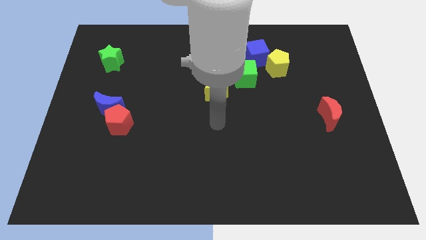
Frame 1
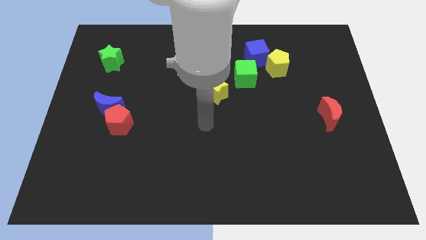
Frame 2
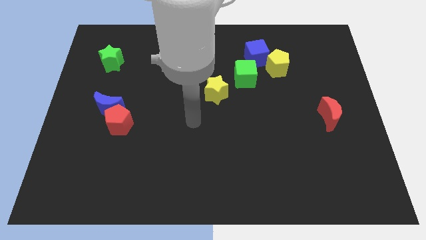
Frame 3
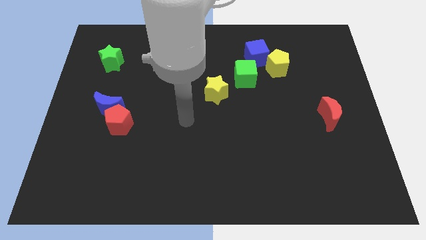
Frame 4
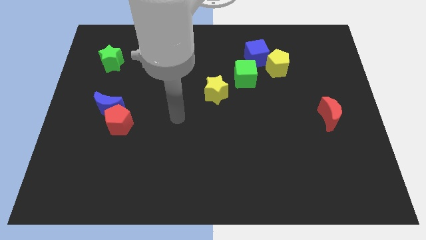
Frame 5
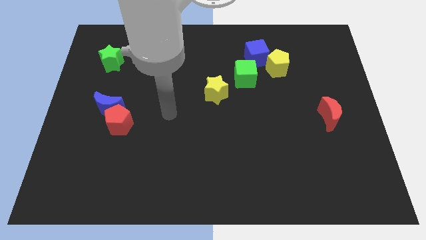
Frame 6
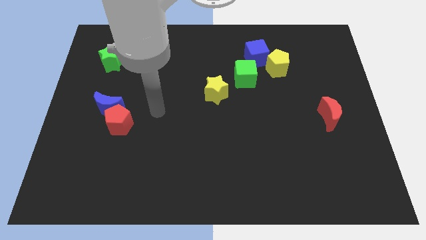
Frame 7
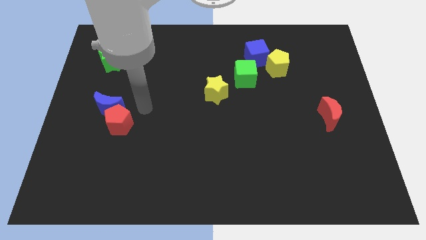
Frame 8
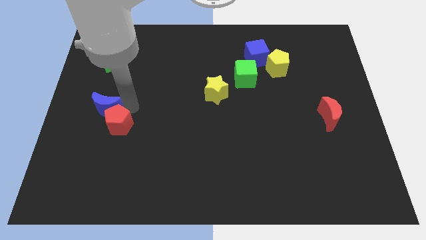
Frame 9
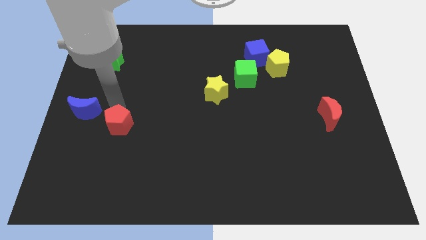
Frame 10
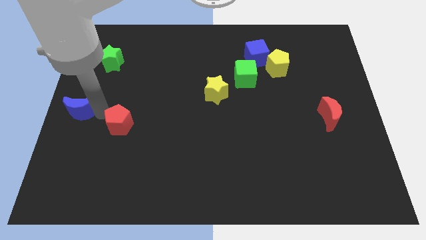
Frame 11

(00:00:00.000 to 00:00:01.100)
separate the red pentagon from the blue moon

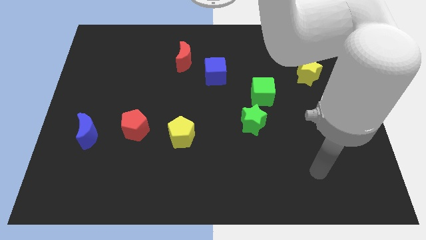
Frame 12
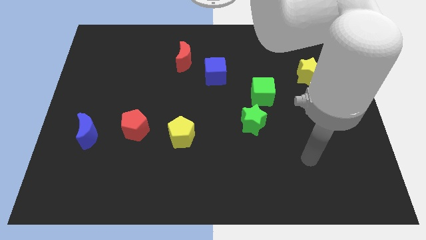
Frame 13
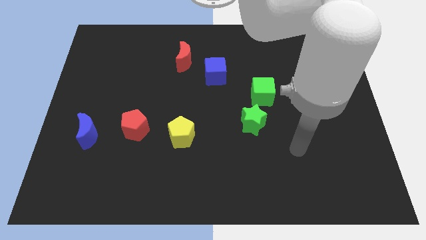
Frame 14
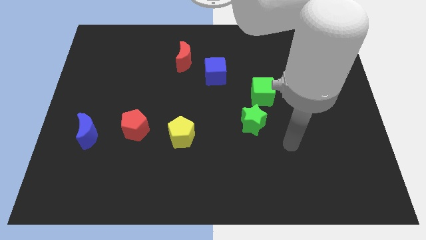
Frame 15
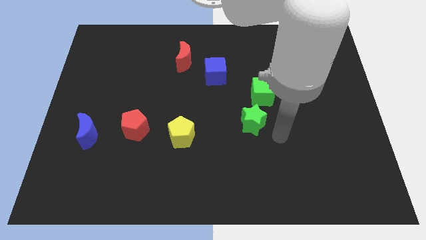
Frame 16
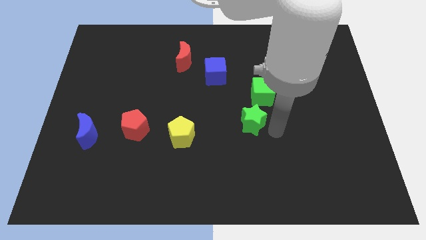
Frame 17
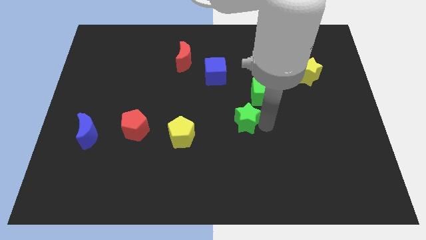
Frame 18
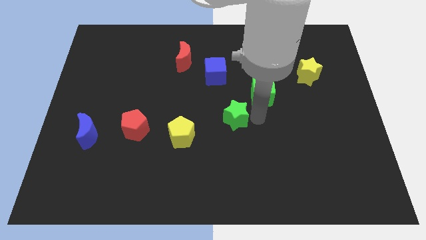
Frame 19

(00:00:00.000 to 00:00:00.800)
move the green cube away from the green star

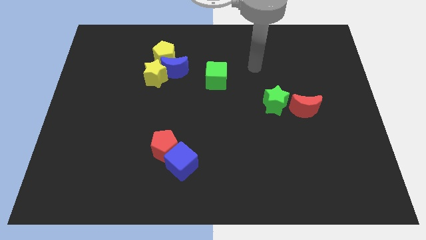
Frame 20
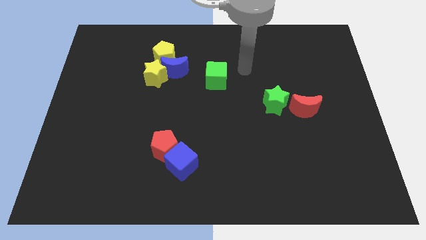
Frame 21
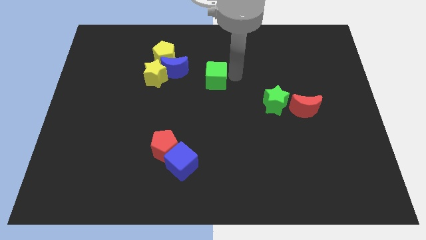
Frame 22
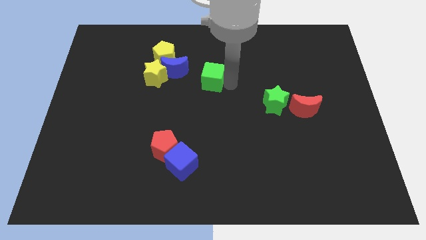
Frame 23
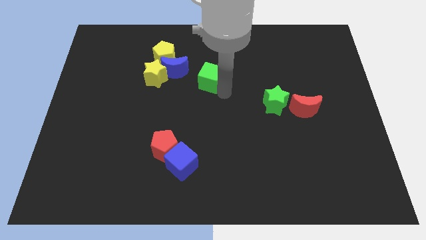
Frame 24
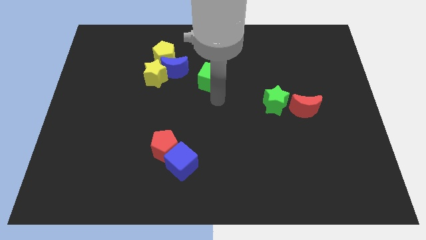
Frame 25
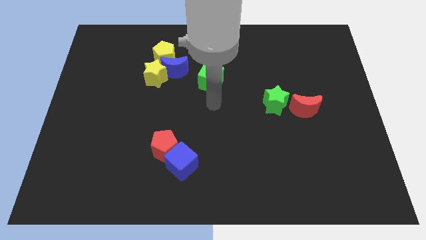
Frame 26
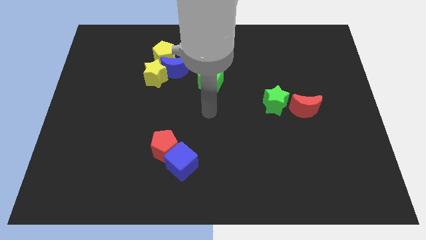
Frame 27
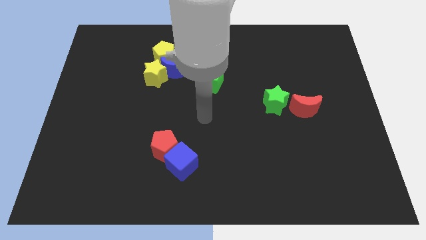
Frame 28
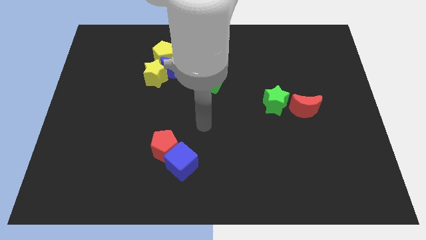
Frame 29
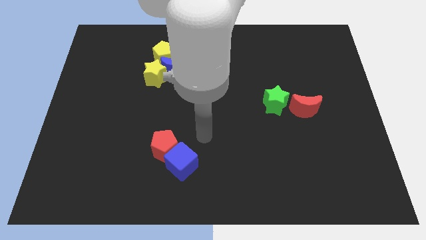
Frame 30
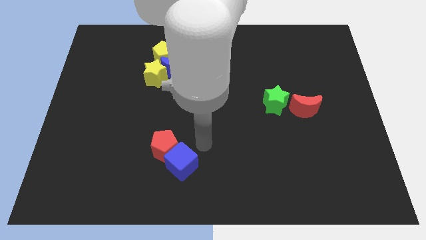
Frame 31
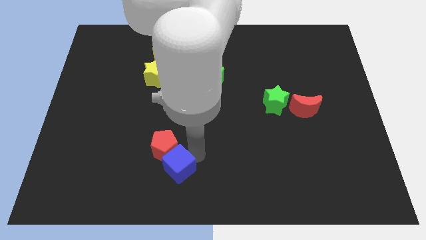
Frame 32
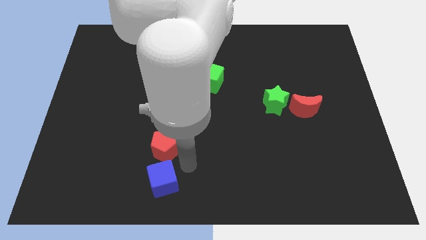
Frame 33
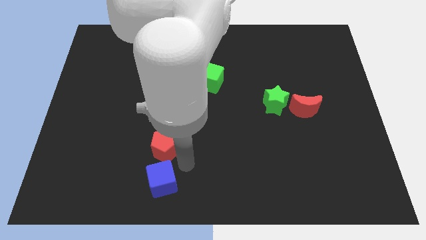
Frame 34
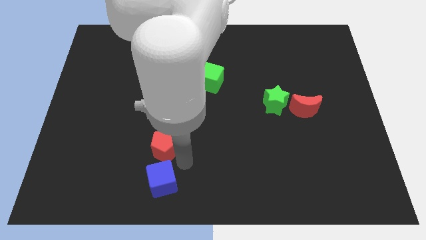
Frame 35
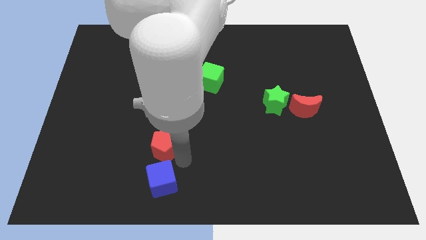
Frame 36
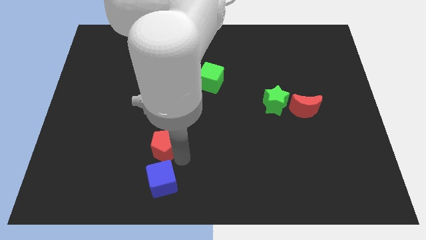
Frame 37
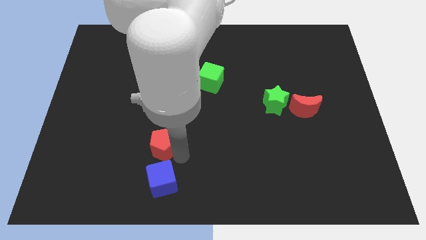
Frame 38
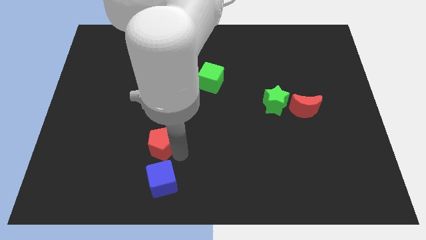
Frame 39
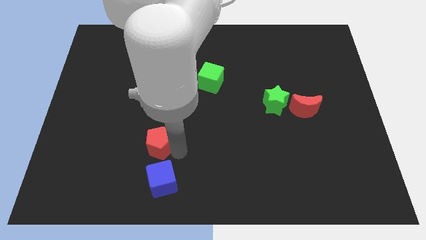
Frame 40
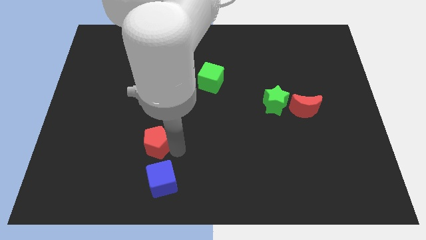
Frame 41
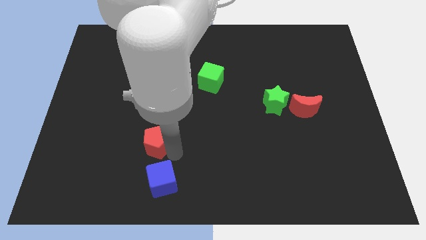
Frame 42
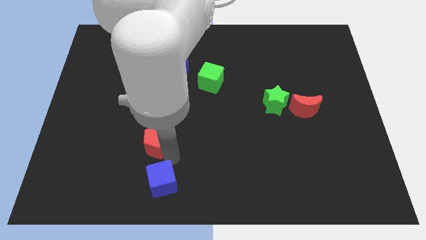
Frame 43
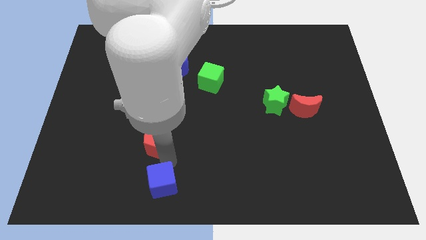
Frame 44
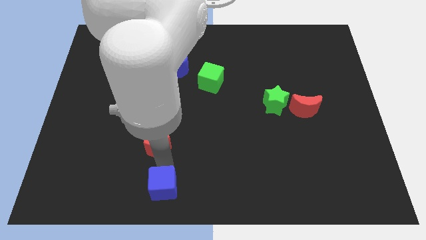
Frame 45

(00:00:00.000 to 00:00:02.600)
separate the red pentagon from the blue cube

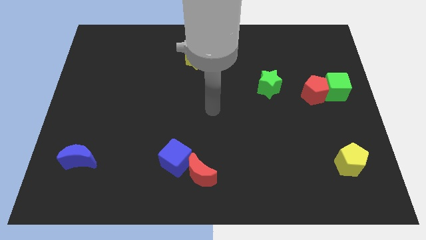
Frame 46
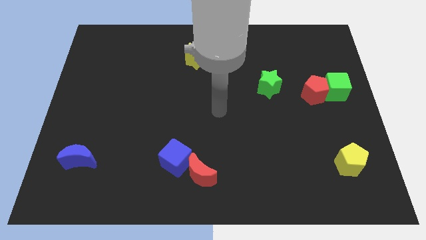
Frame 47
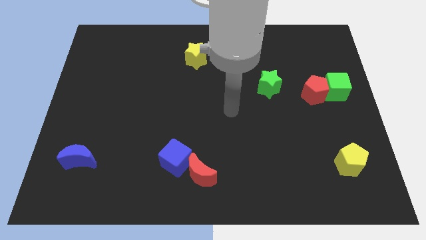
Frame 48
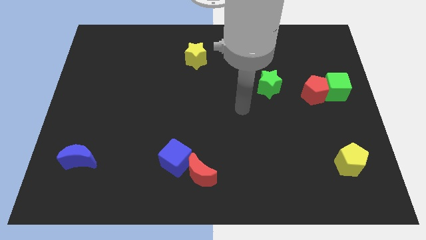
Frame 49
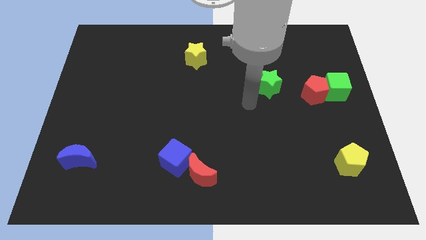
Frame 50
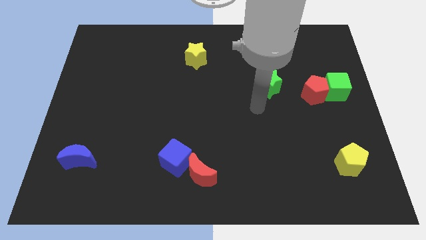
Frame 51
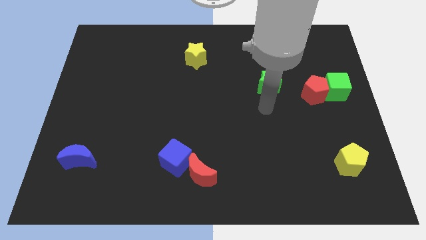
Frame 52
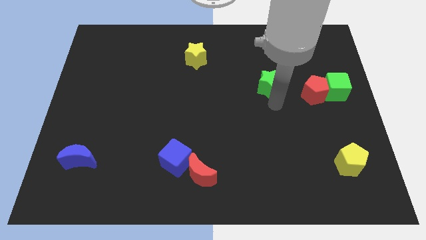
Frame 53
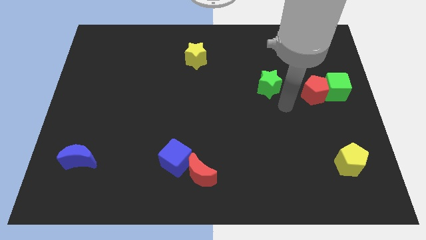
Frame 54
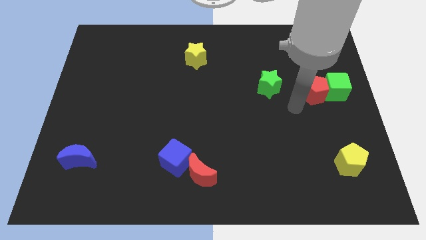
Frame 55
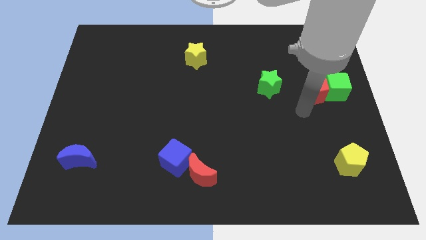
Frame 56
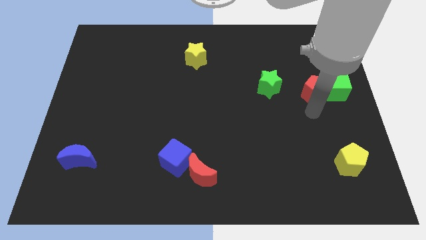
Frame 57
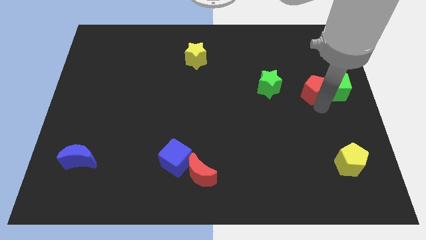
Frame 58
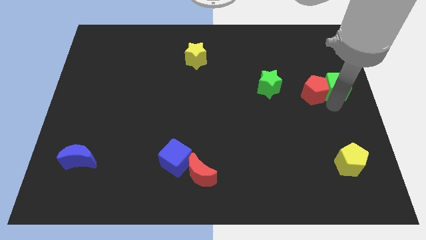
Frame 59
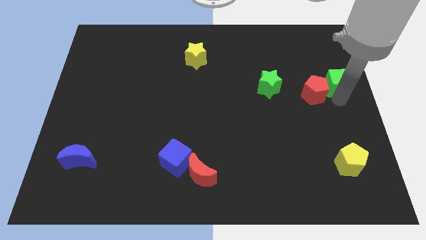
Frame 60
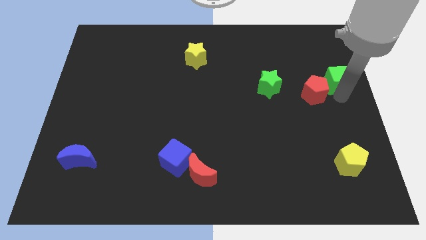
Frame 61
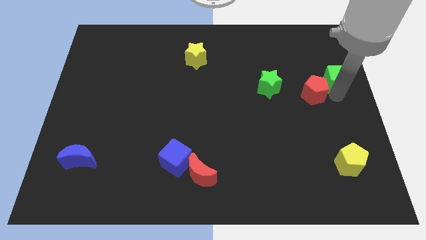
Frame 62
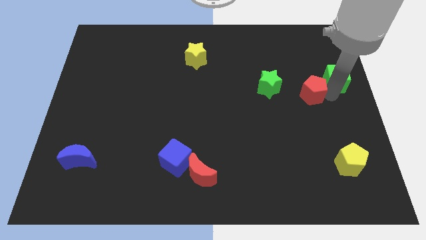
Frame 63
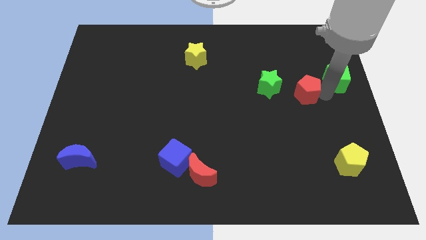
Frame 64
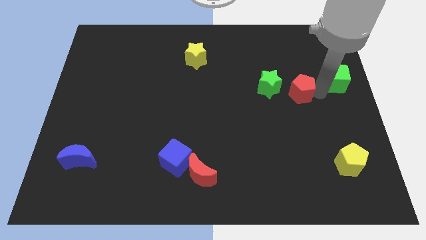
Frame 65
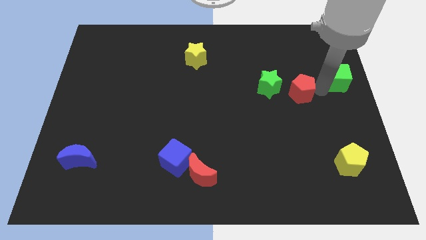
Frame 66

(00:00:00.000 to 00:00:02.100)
move the red pentagon away from the green cube

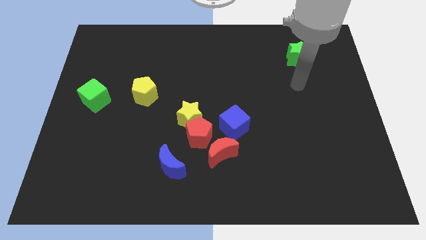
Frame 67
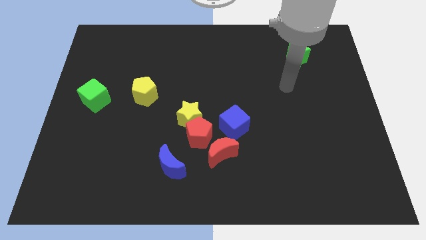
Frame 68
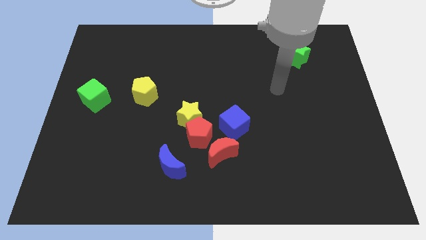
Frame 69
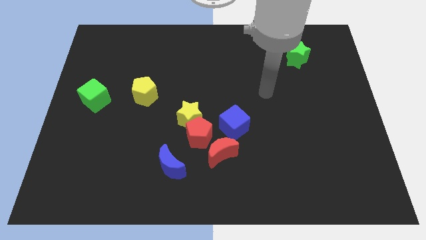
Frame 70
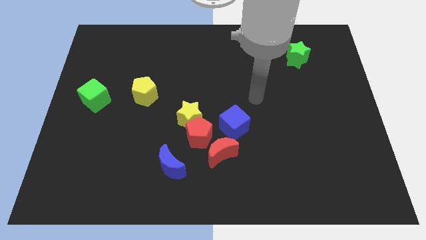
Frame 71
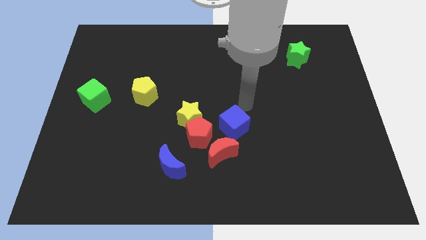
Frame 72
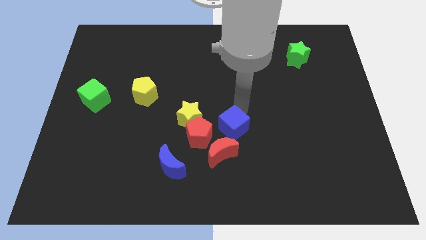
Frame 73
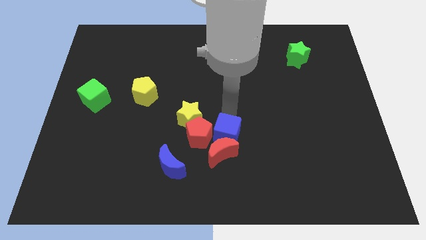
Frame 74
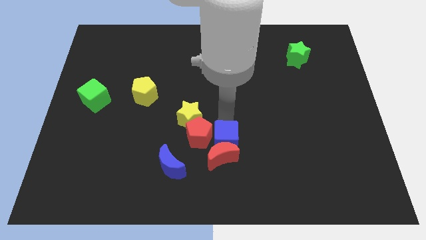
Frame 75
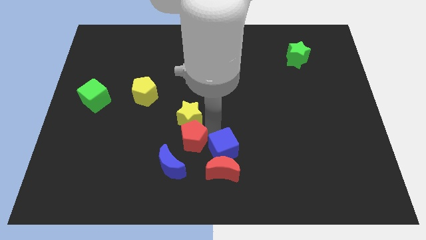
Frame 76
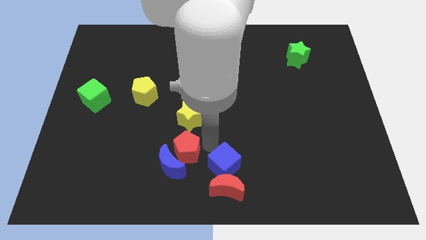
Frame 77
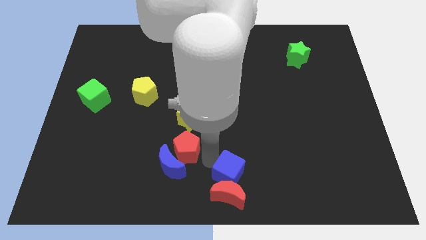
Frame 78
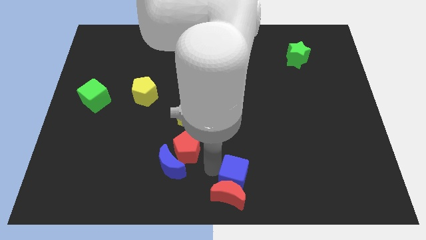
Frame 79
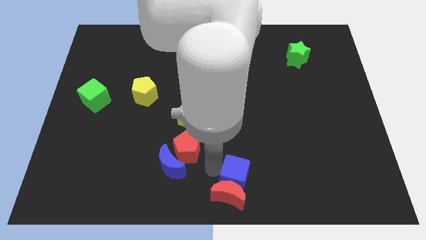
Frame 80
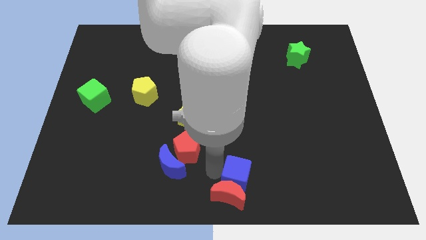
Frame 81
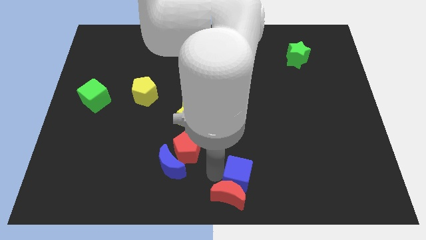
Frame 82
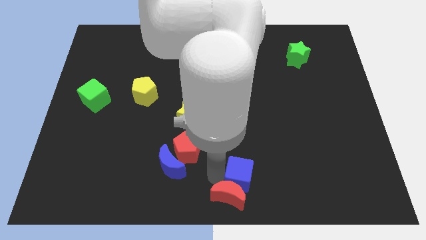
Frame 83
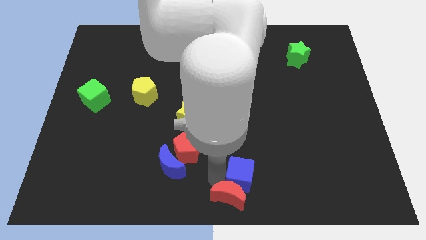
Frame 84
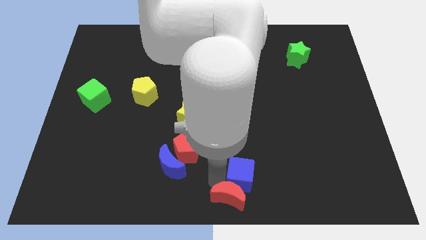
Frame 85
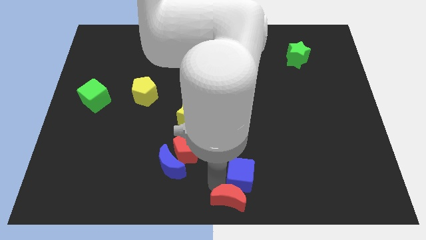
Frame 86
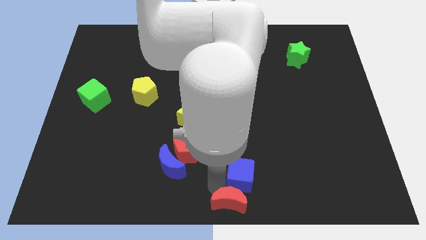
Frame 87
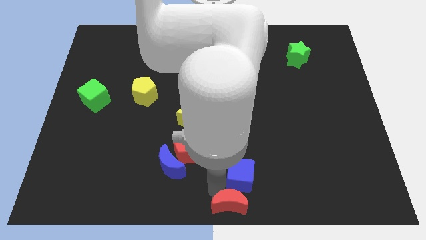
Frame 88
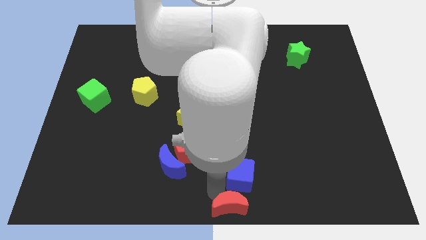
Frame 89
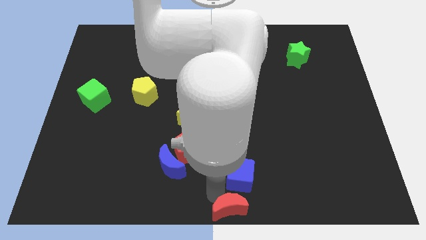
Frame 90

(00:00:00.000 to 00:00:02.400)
pull the red moon apart from the red pentagon and blue cube

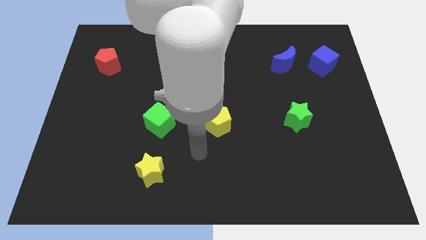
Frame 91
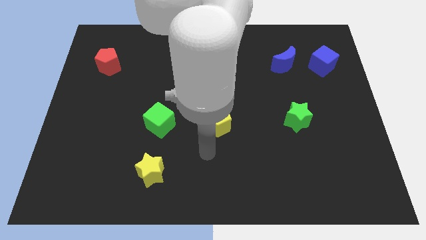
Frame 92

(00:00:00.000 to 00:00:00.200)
move the blue moon away from the blue cube
